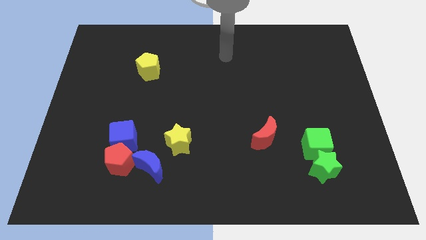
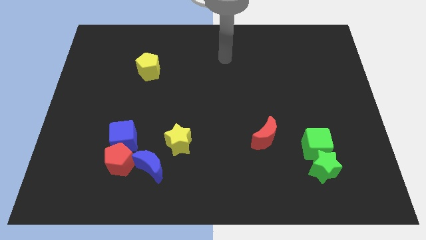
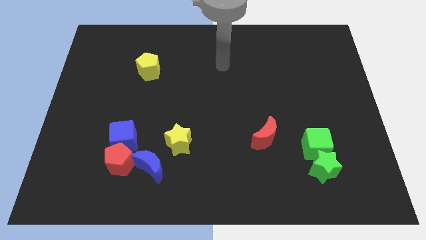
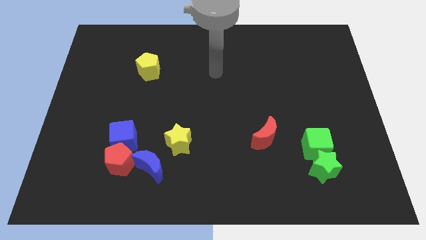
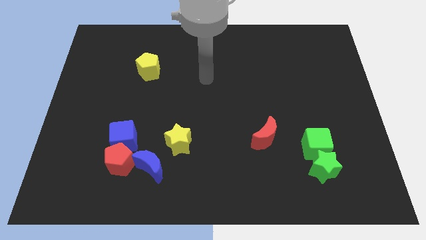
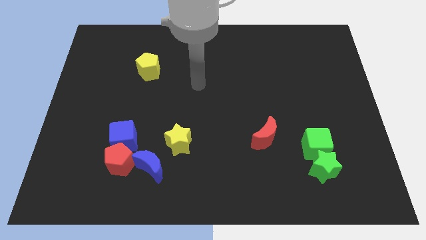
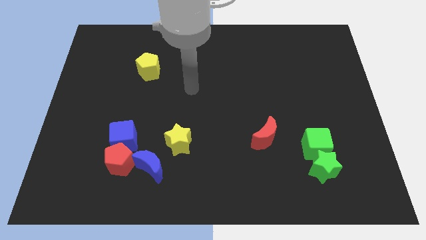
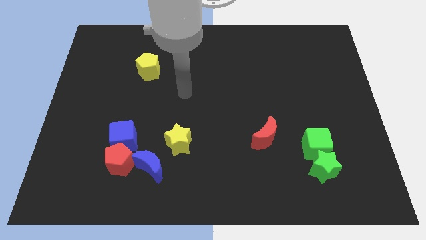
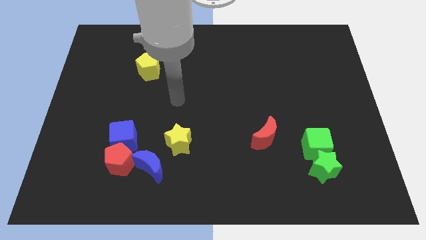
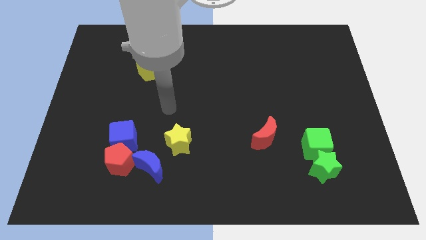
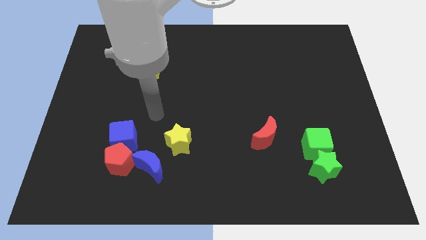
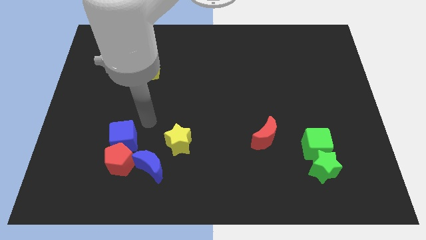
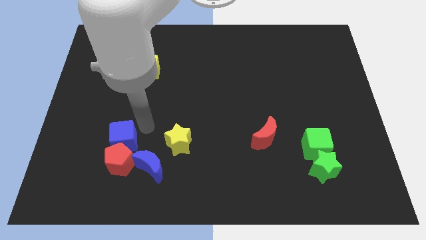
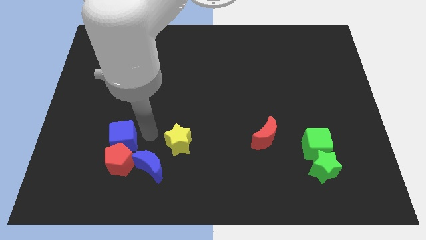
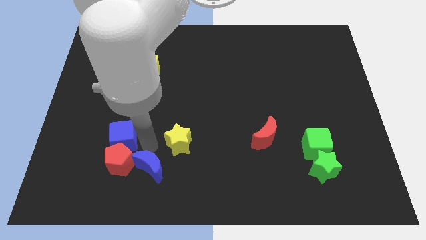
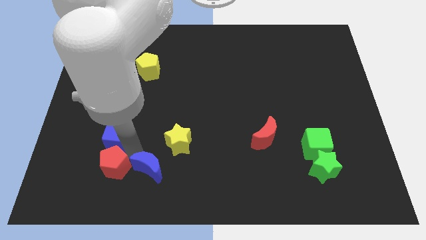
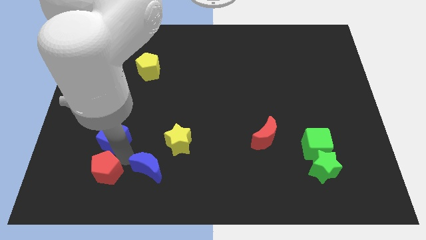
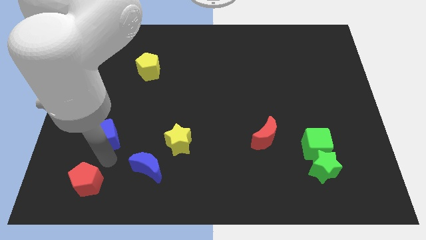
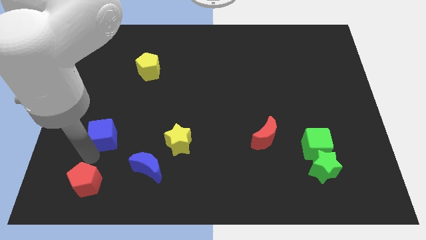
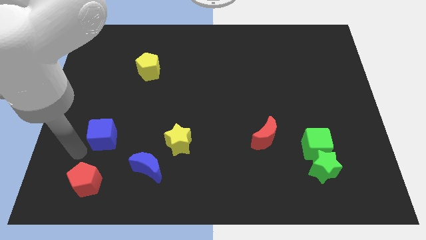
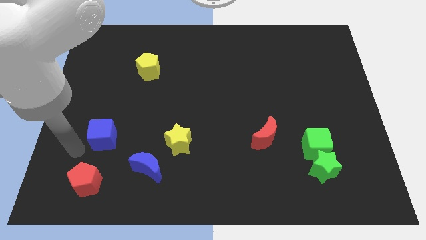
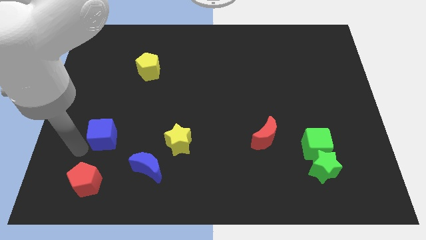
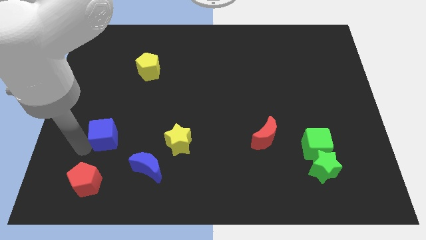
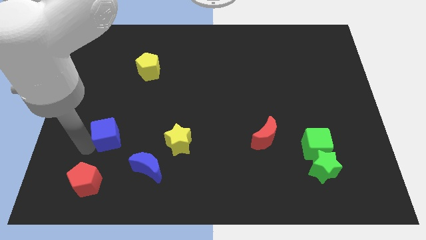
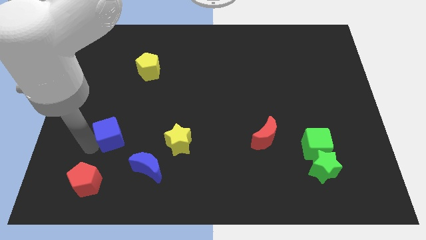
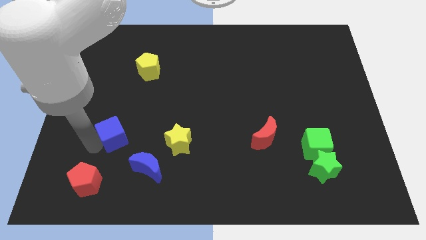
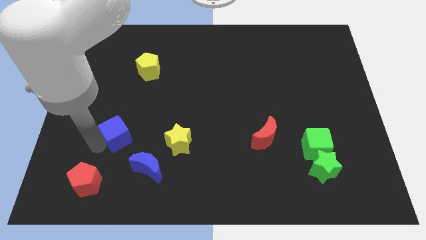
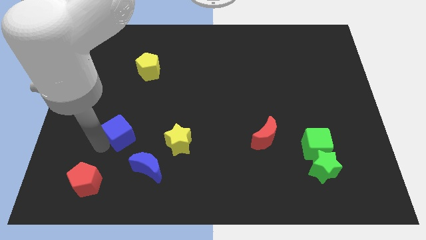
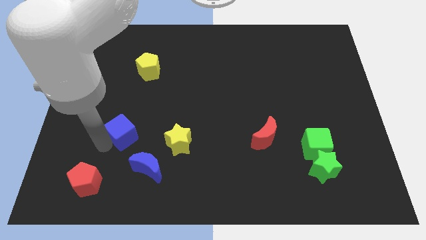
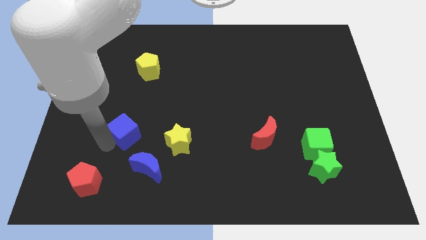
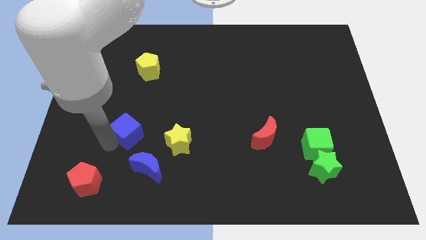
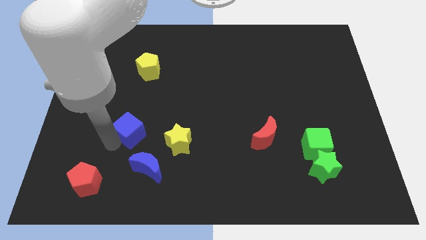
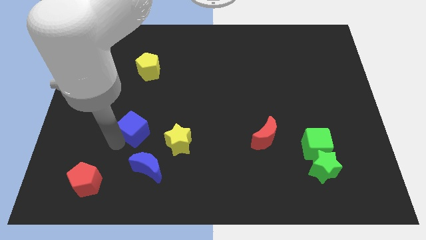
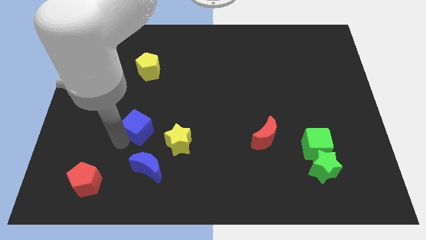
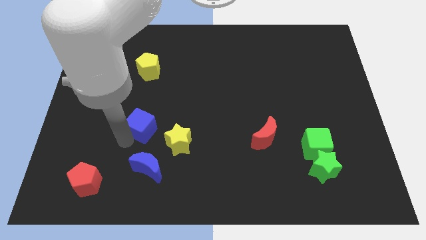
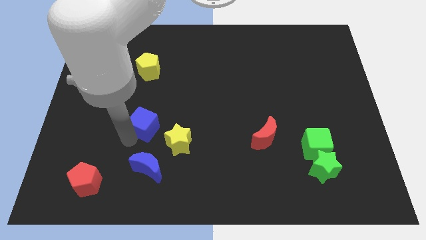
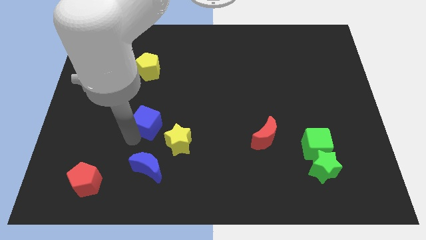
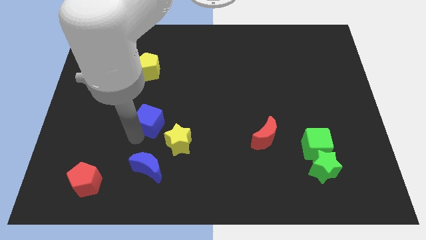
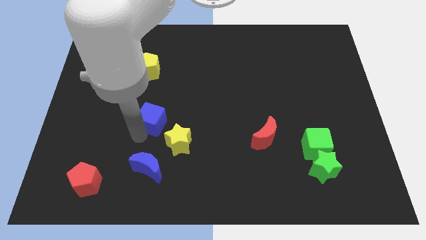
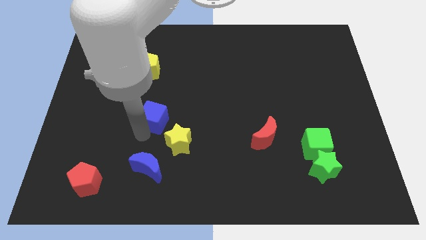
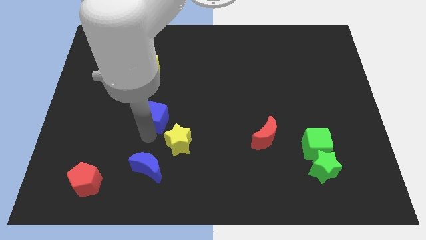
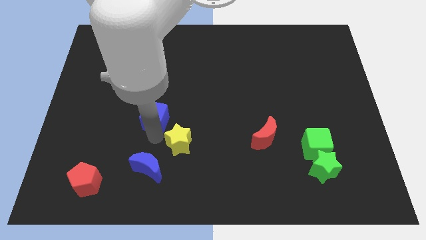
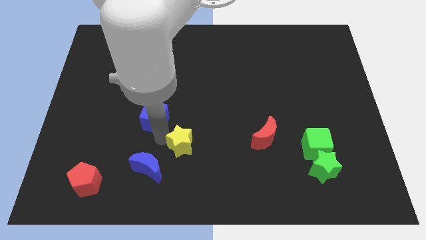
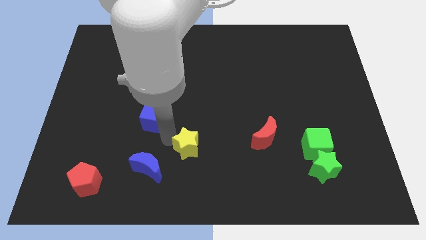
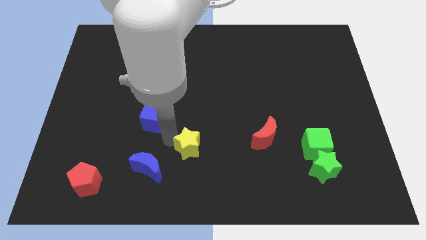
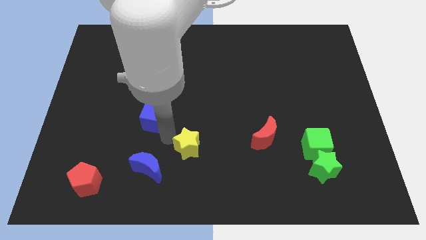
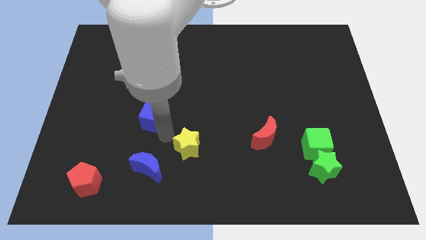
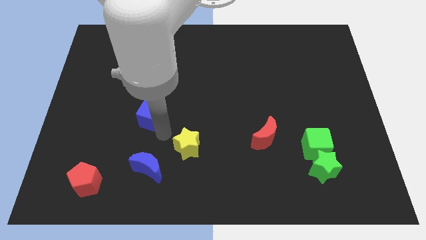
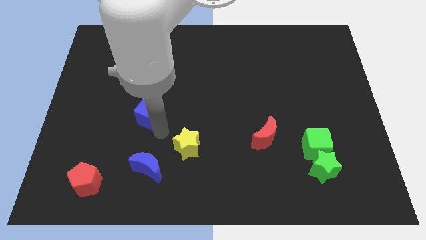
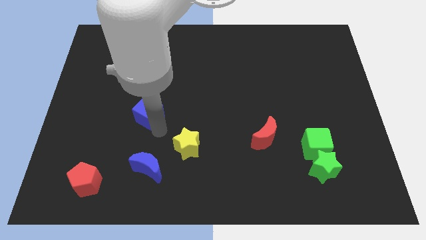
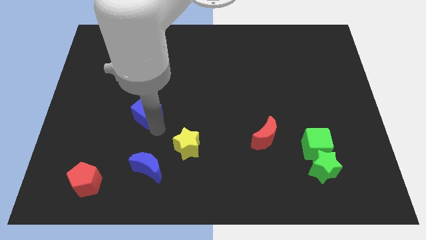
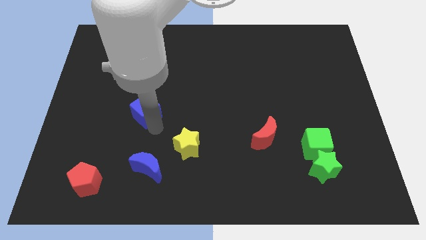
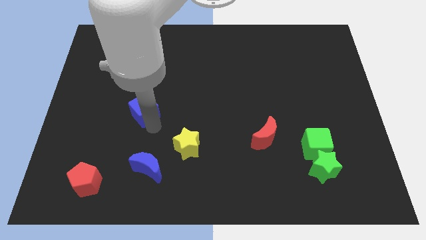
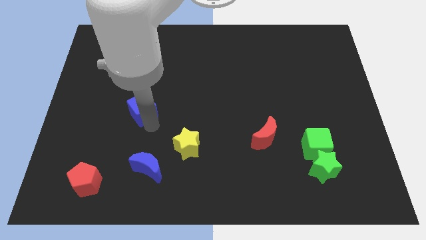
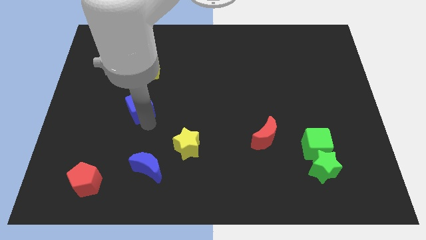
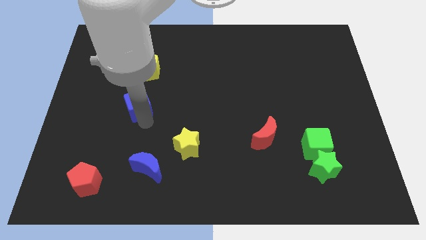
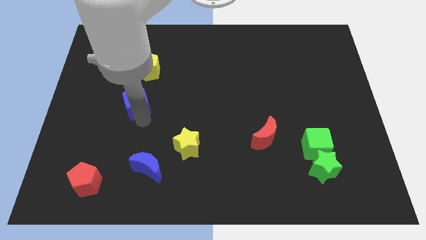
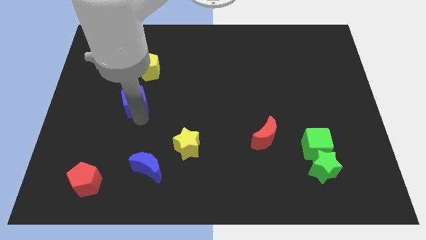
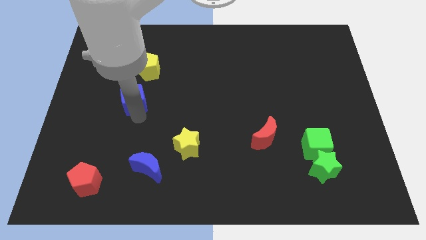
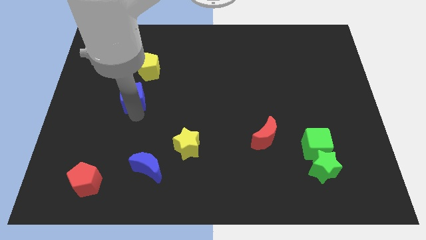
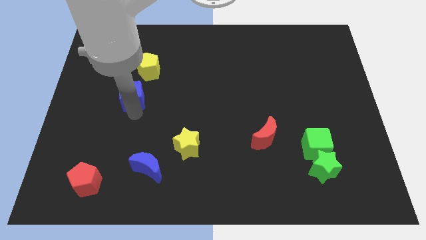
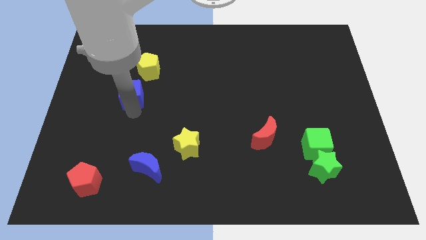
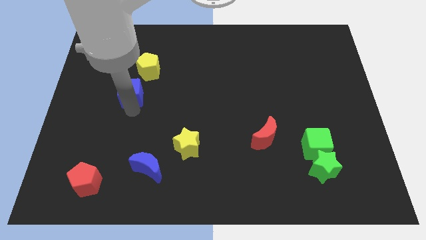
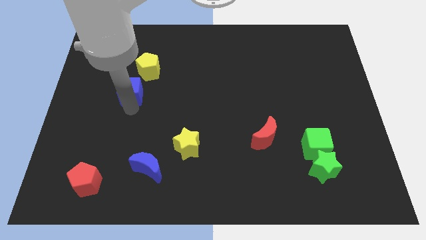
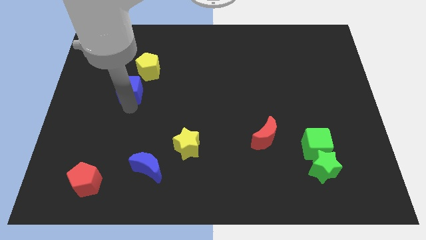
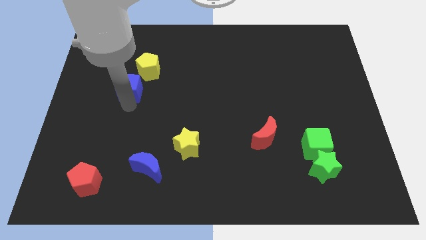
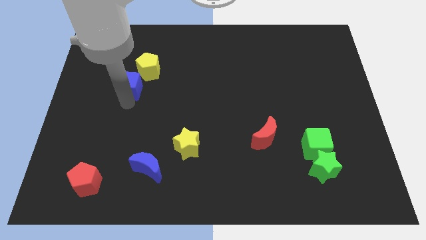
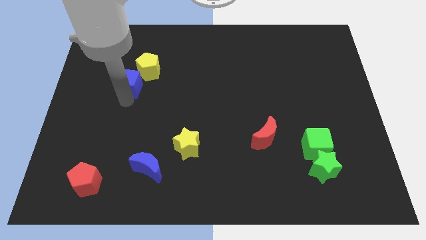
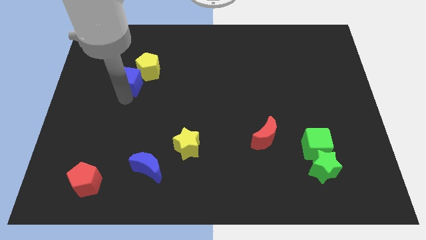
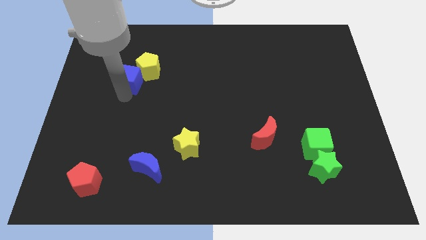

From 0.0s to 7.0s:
put the blue cube to the yellow pentagon
